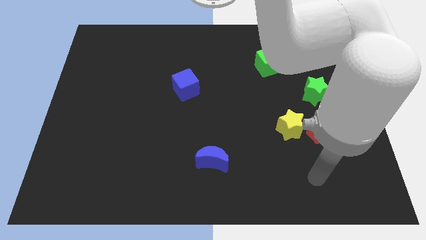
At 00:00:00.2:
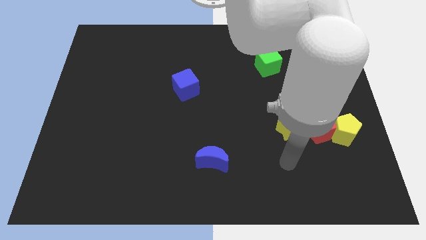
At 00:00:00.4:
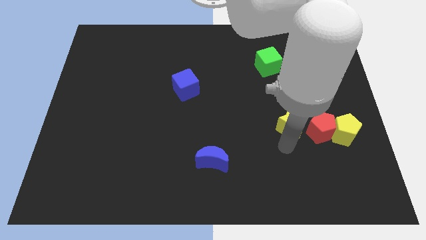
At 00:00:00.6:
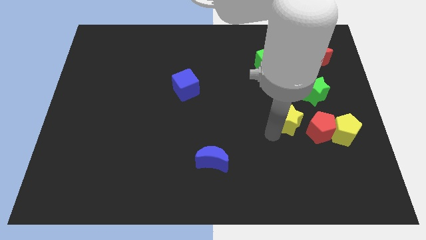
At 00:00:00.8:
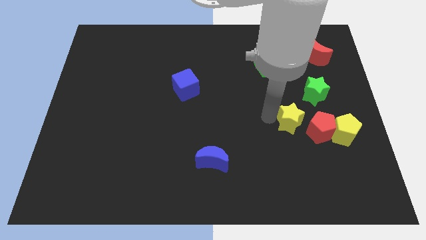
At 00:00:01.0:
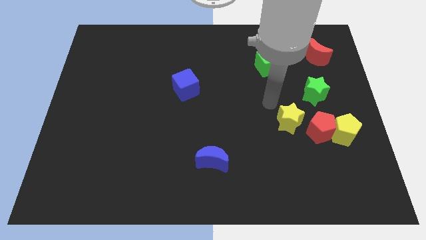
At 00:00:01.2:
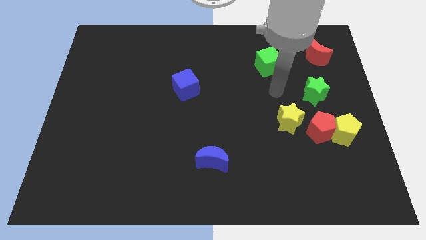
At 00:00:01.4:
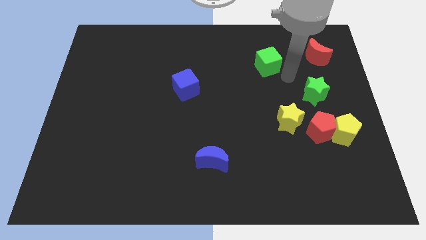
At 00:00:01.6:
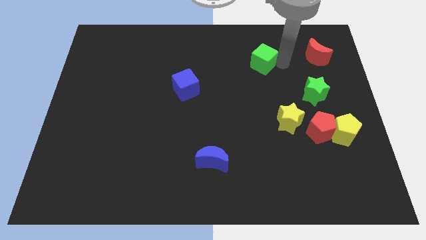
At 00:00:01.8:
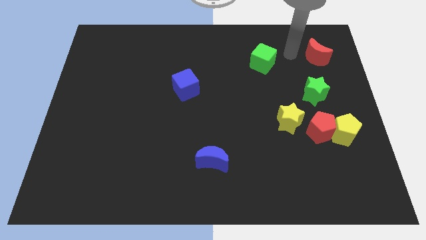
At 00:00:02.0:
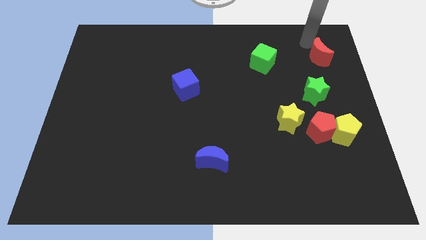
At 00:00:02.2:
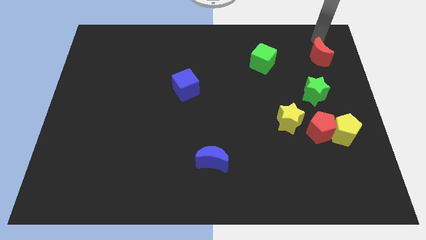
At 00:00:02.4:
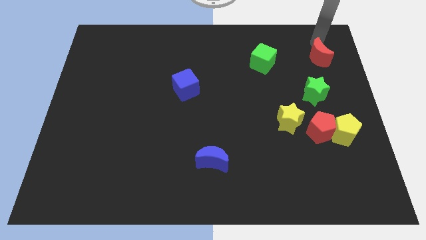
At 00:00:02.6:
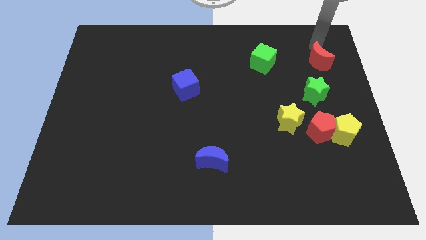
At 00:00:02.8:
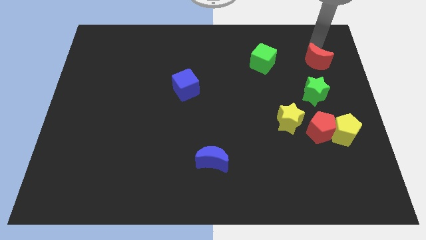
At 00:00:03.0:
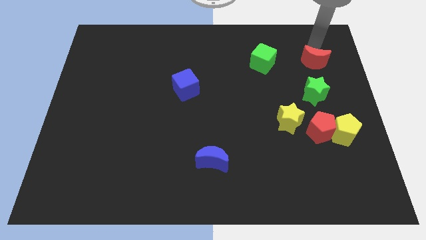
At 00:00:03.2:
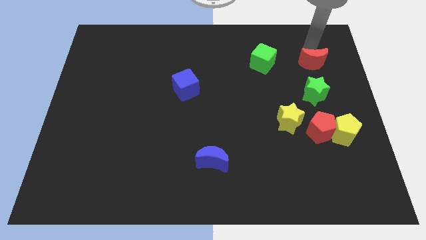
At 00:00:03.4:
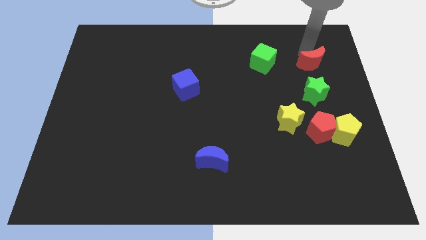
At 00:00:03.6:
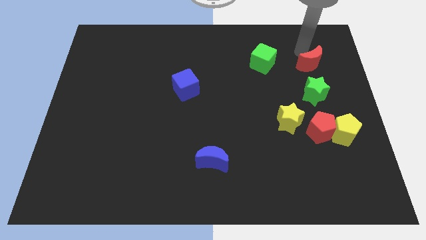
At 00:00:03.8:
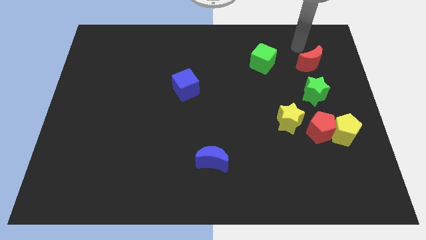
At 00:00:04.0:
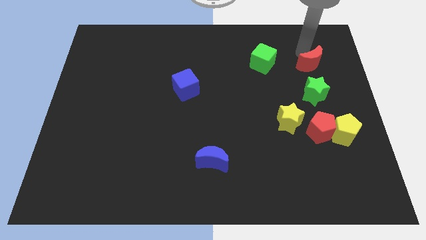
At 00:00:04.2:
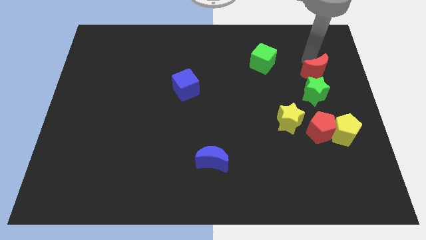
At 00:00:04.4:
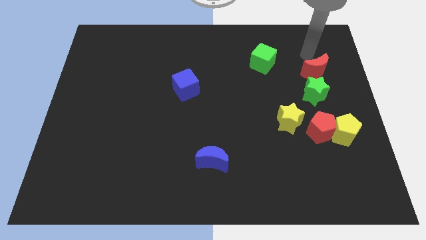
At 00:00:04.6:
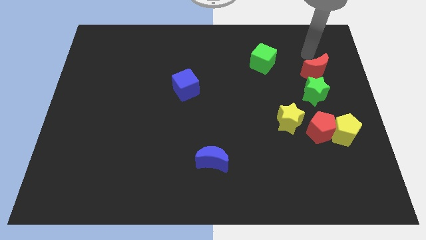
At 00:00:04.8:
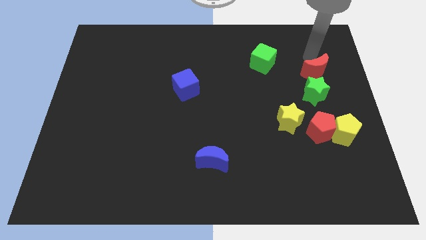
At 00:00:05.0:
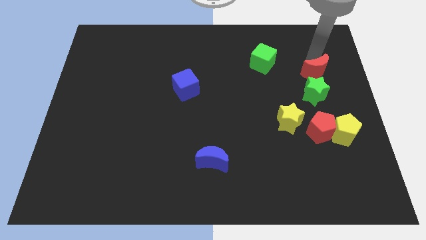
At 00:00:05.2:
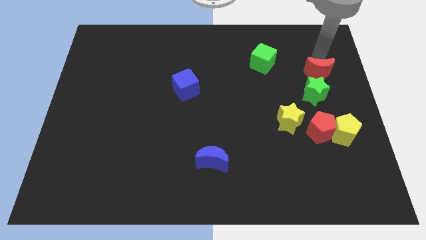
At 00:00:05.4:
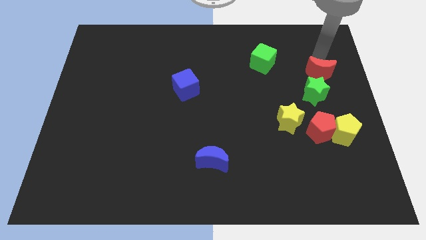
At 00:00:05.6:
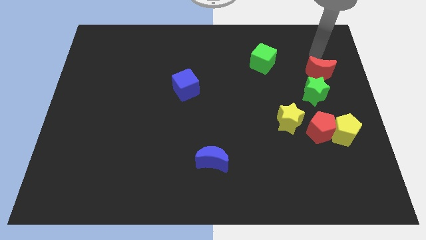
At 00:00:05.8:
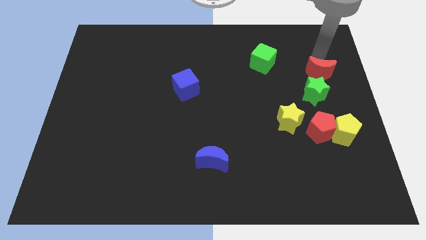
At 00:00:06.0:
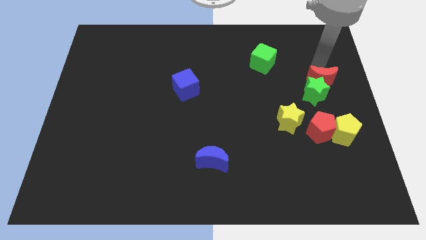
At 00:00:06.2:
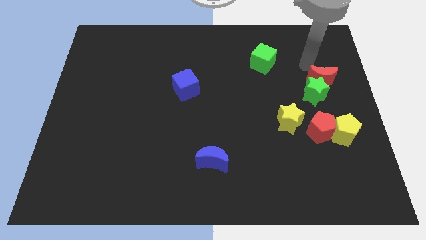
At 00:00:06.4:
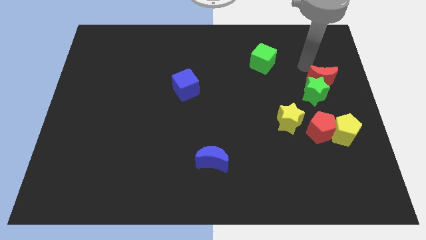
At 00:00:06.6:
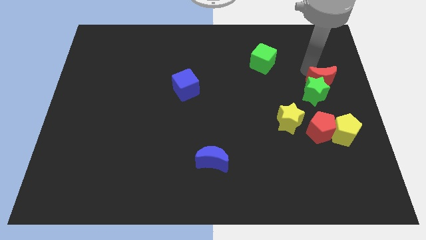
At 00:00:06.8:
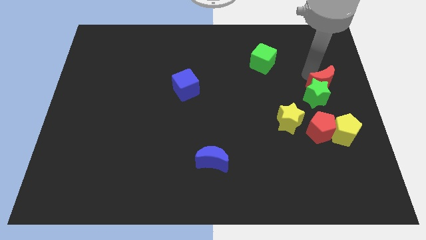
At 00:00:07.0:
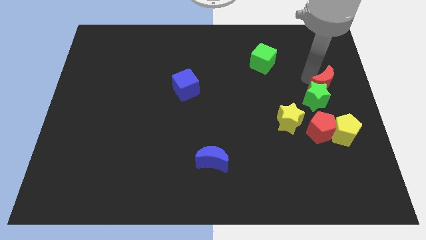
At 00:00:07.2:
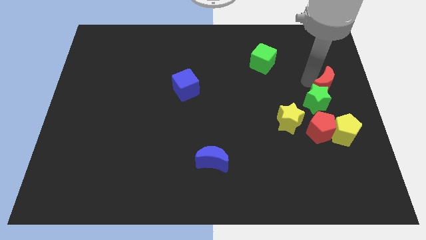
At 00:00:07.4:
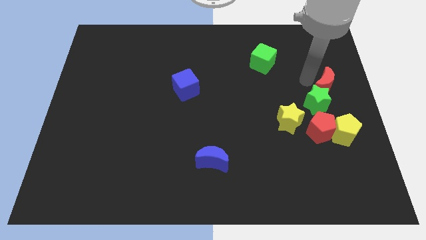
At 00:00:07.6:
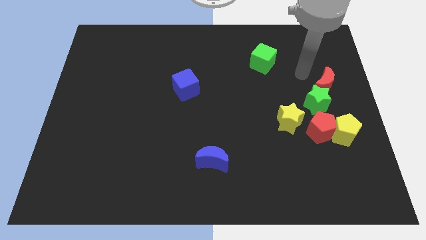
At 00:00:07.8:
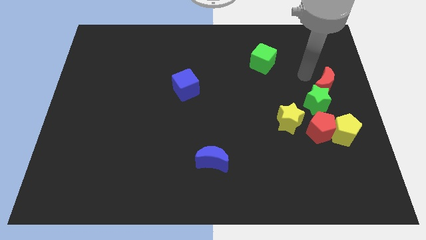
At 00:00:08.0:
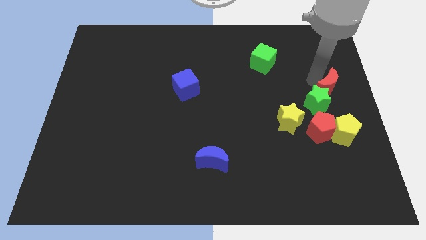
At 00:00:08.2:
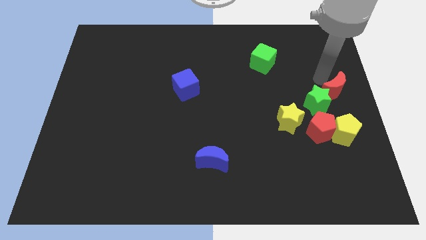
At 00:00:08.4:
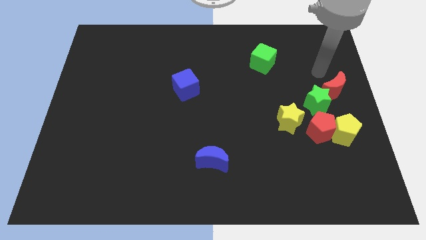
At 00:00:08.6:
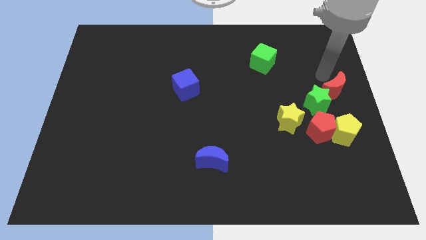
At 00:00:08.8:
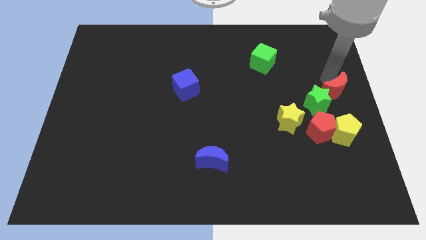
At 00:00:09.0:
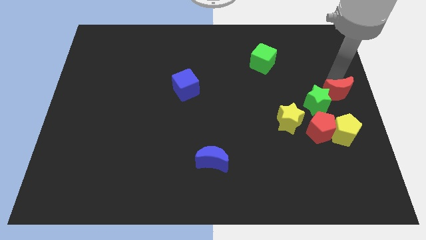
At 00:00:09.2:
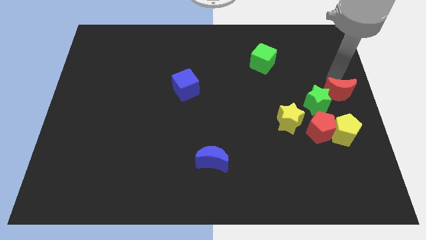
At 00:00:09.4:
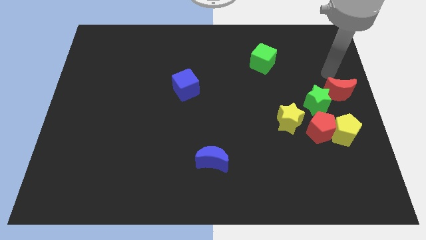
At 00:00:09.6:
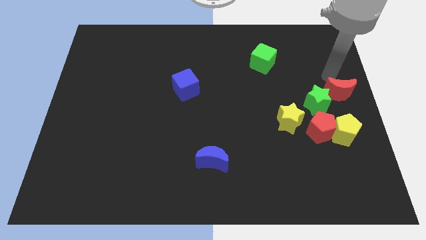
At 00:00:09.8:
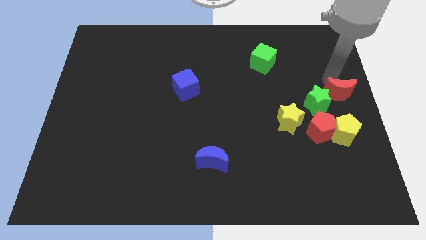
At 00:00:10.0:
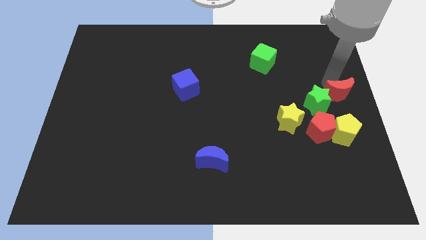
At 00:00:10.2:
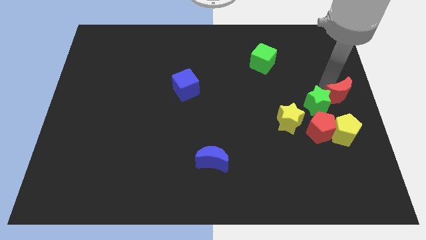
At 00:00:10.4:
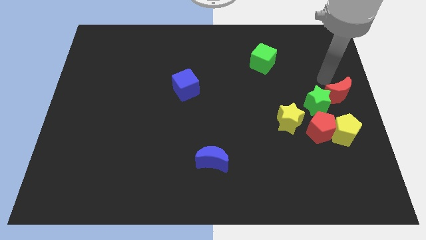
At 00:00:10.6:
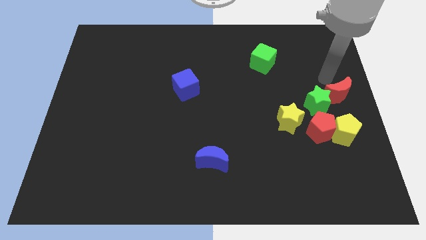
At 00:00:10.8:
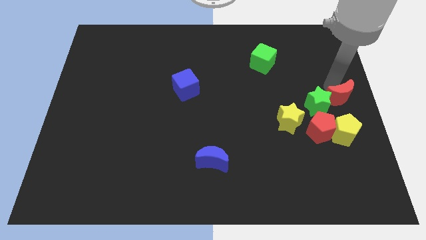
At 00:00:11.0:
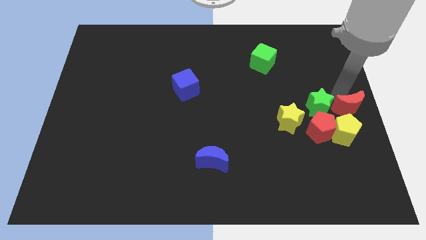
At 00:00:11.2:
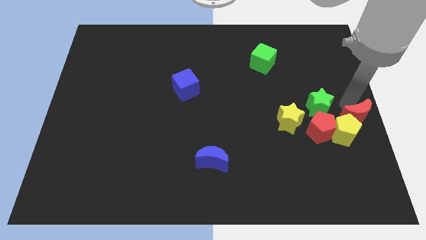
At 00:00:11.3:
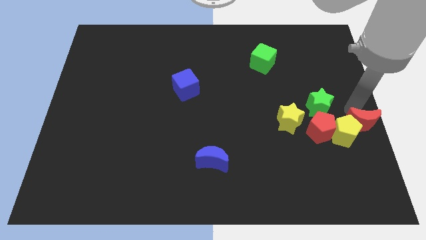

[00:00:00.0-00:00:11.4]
move the red moon down

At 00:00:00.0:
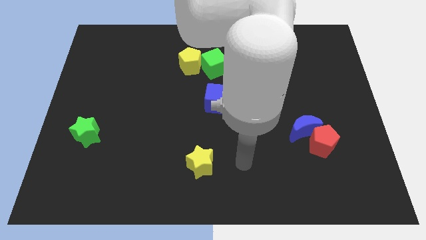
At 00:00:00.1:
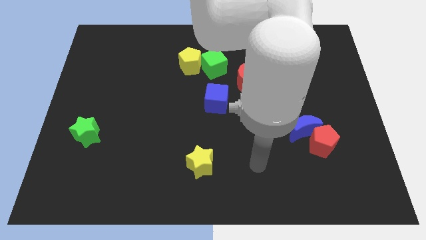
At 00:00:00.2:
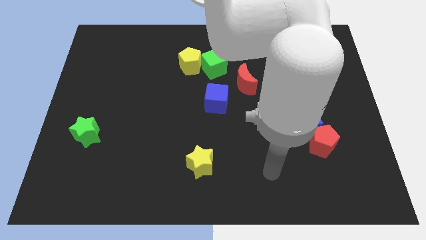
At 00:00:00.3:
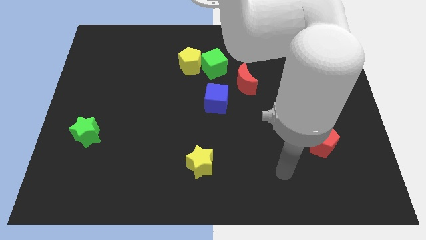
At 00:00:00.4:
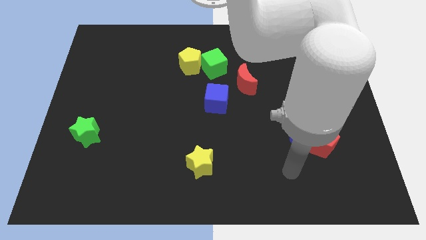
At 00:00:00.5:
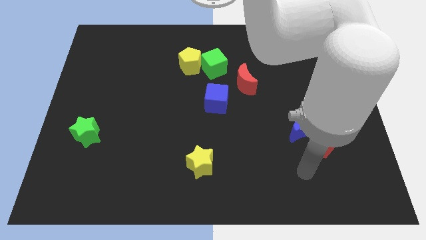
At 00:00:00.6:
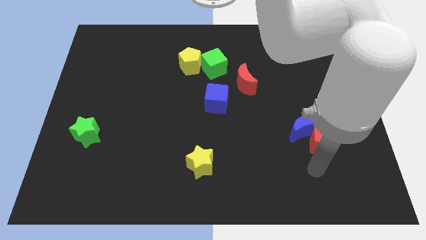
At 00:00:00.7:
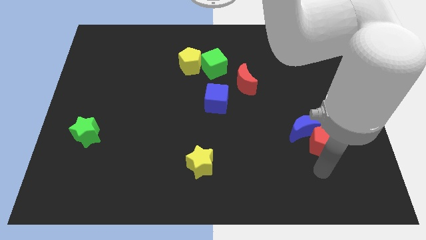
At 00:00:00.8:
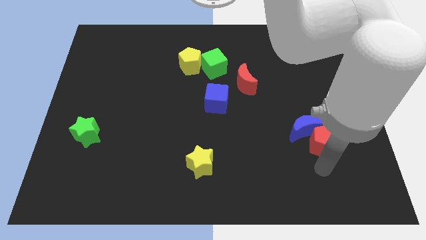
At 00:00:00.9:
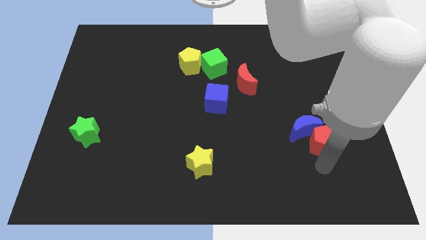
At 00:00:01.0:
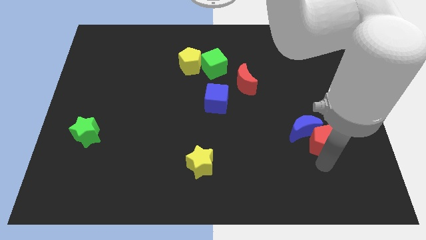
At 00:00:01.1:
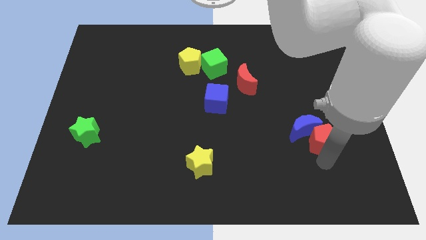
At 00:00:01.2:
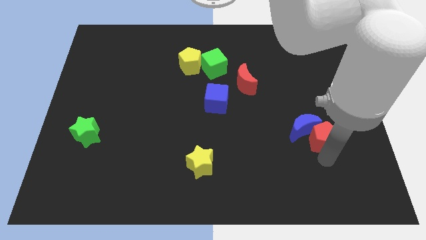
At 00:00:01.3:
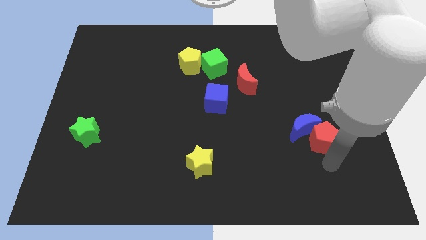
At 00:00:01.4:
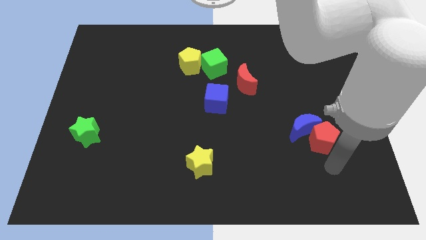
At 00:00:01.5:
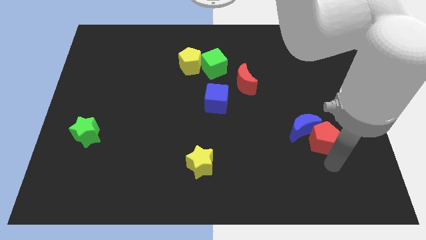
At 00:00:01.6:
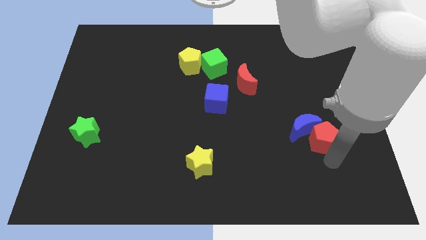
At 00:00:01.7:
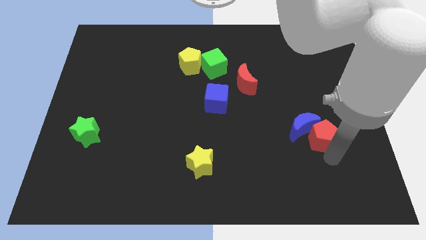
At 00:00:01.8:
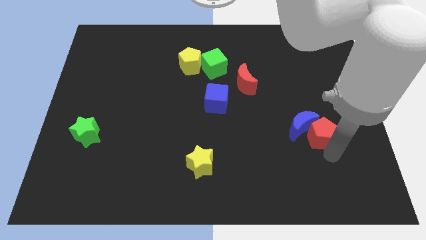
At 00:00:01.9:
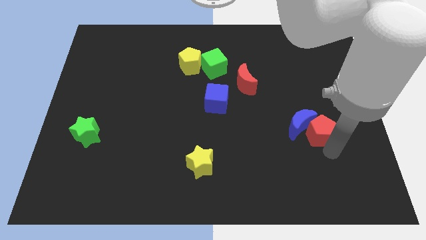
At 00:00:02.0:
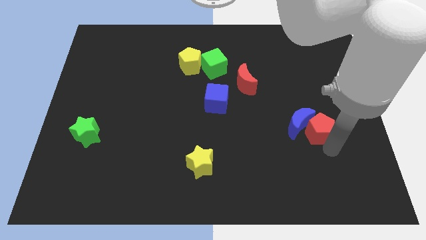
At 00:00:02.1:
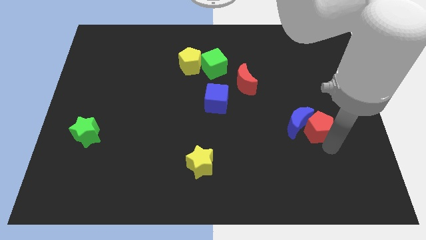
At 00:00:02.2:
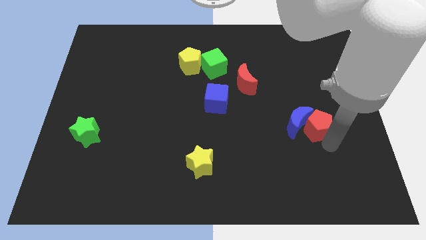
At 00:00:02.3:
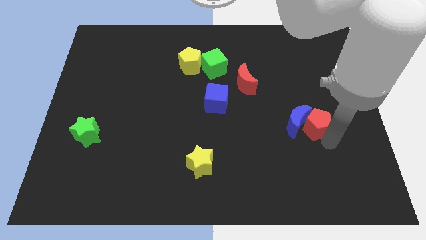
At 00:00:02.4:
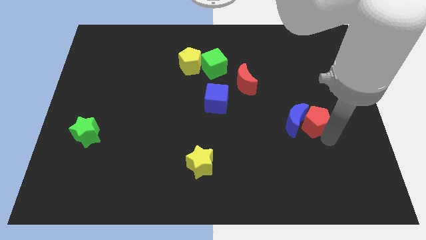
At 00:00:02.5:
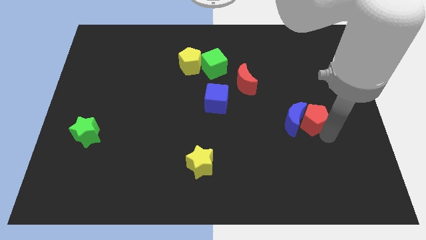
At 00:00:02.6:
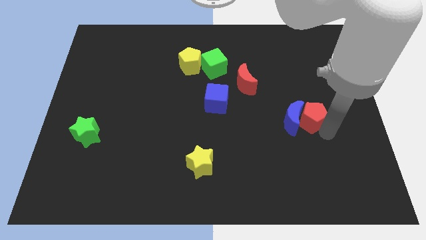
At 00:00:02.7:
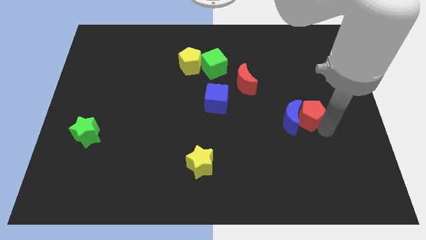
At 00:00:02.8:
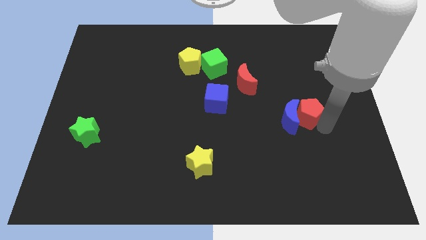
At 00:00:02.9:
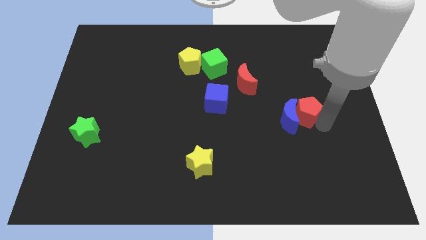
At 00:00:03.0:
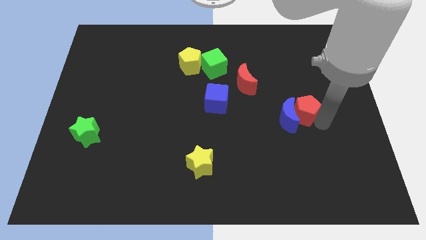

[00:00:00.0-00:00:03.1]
slide the red pentagon upwards and left diagonally a bit
